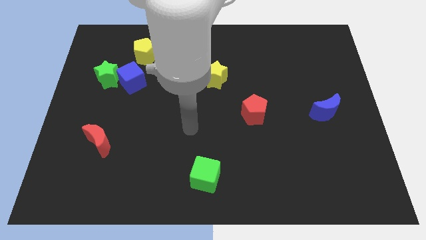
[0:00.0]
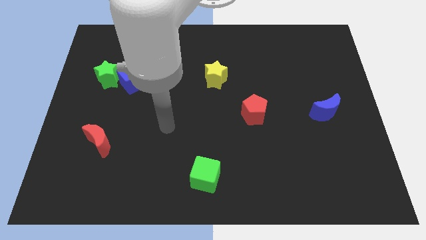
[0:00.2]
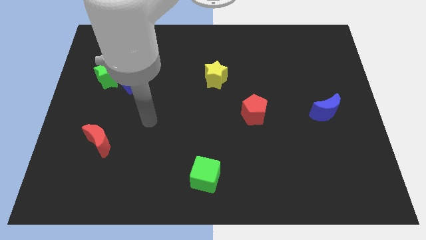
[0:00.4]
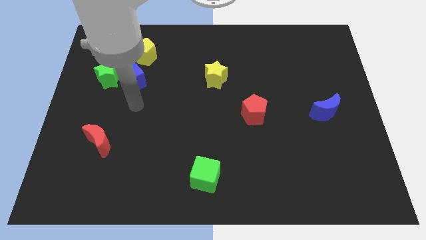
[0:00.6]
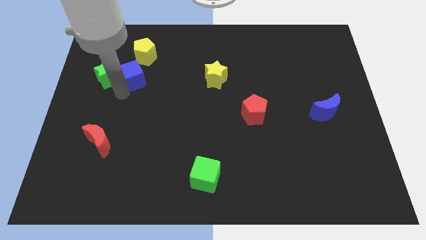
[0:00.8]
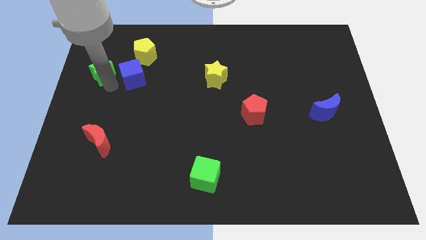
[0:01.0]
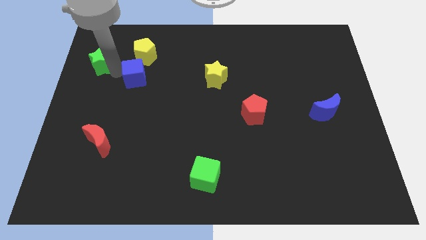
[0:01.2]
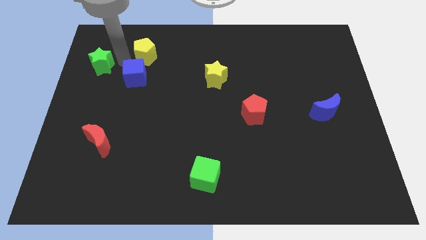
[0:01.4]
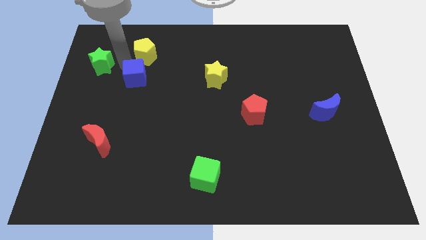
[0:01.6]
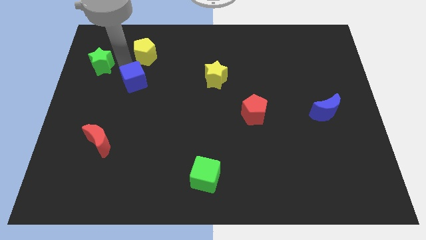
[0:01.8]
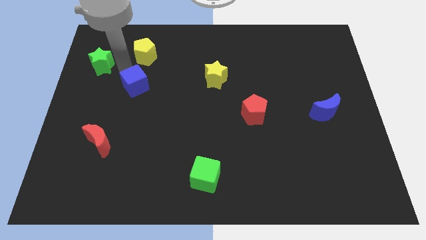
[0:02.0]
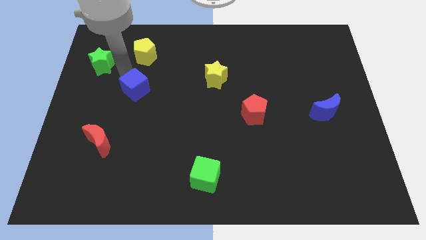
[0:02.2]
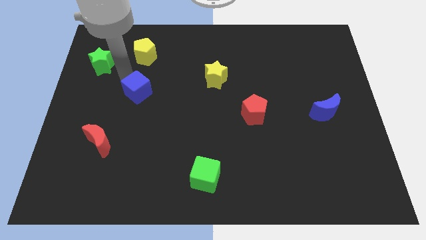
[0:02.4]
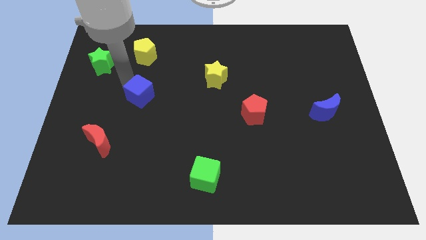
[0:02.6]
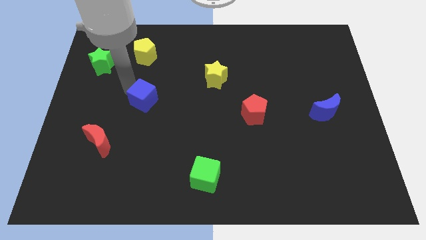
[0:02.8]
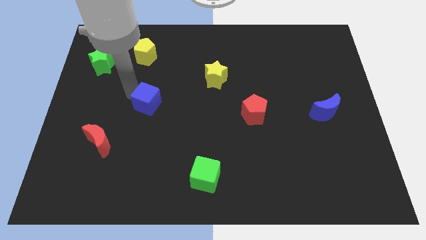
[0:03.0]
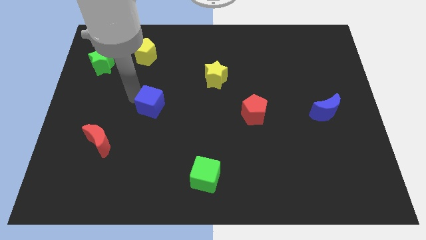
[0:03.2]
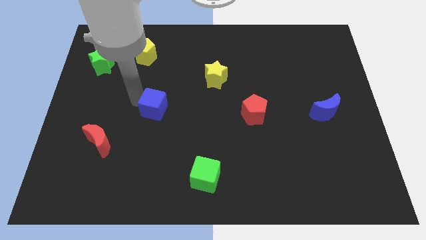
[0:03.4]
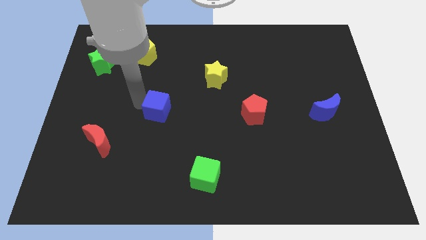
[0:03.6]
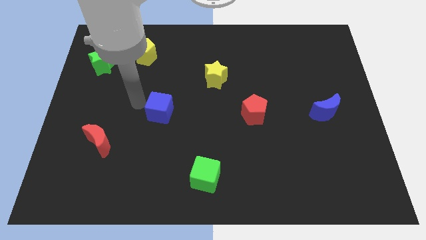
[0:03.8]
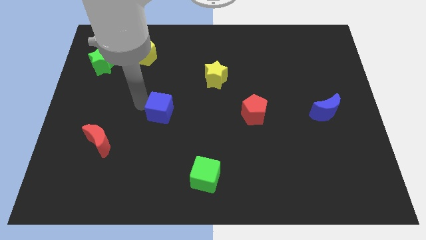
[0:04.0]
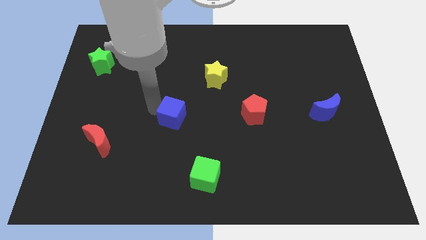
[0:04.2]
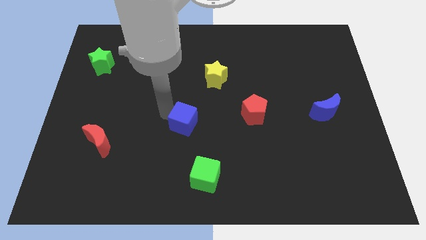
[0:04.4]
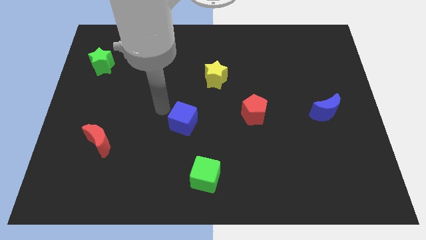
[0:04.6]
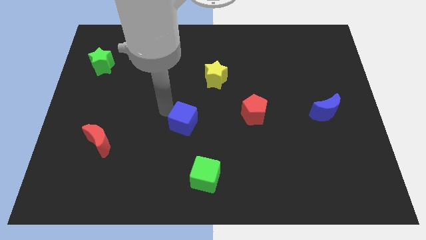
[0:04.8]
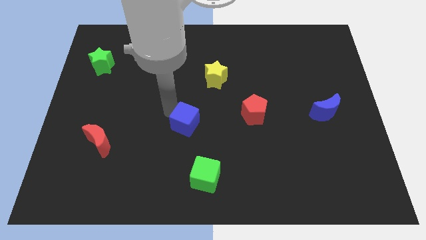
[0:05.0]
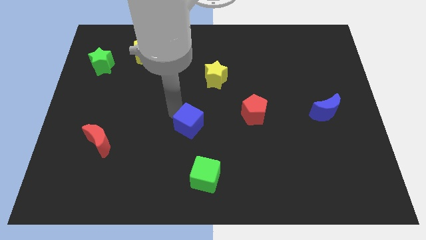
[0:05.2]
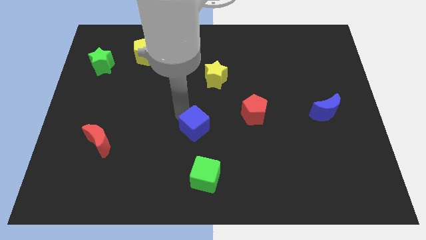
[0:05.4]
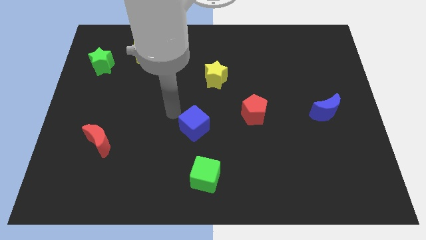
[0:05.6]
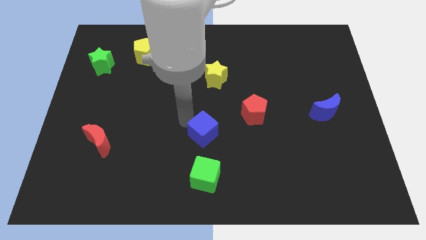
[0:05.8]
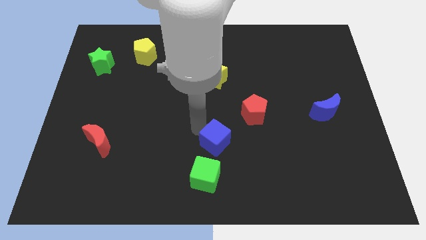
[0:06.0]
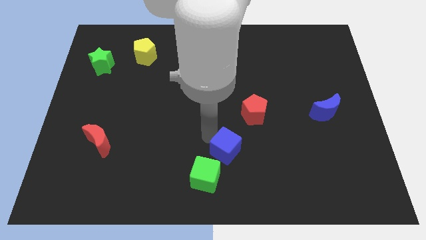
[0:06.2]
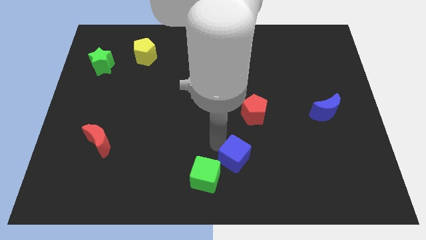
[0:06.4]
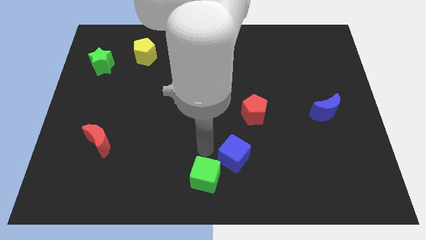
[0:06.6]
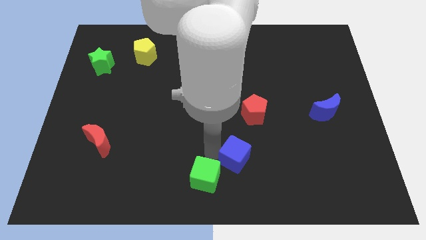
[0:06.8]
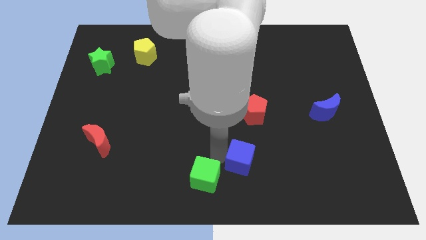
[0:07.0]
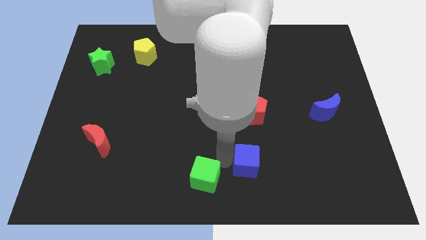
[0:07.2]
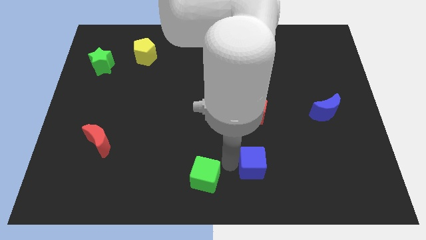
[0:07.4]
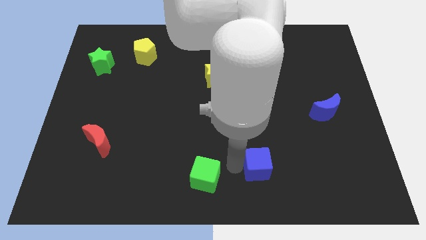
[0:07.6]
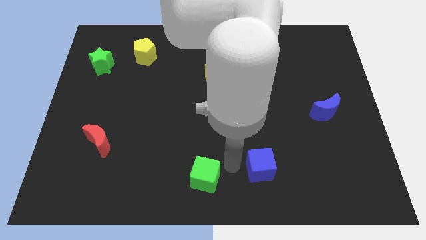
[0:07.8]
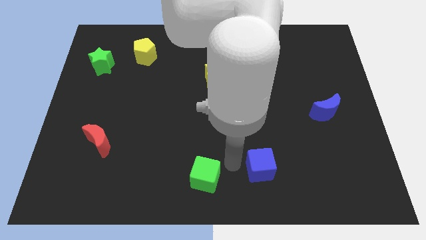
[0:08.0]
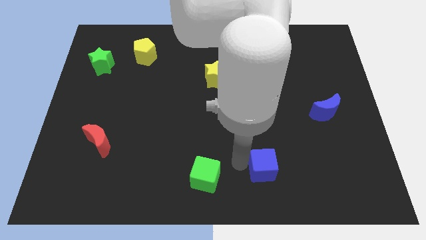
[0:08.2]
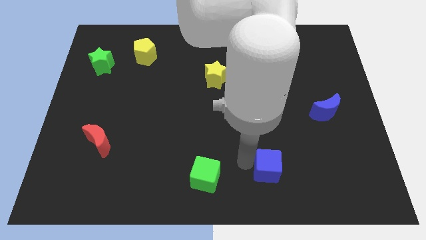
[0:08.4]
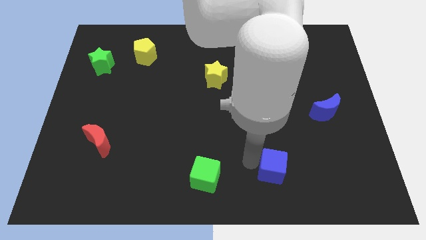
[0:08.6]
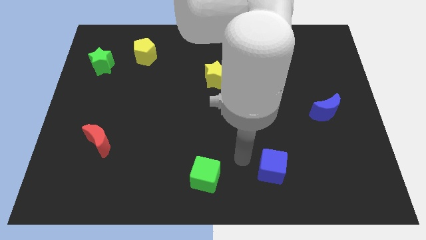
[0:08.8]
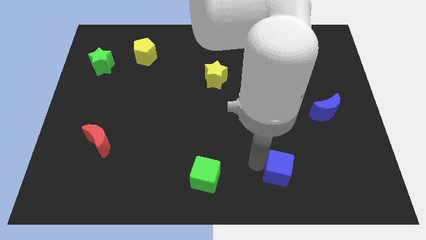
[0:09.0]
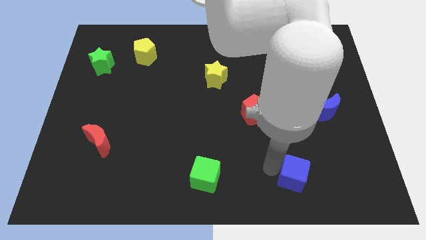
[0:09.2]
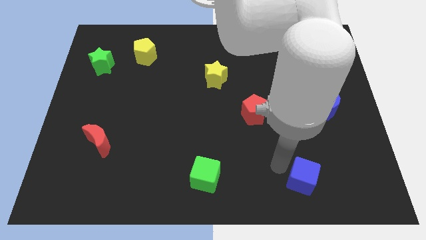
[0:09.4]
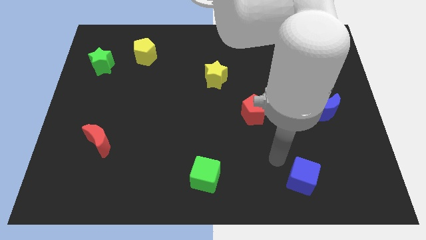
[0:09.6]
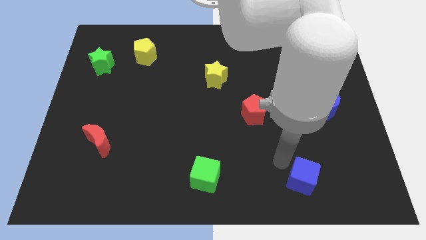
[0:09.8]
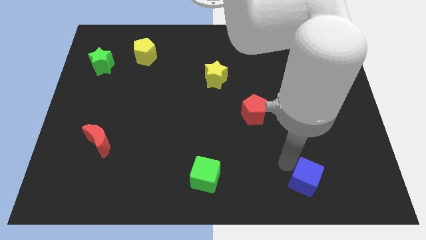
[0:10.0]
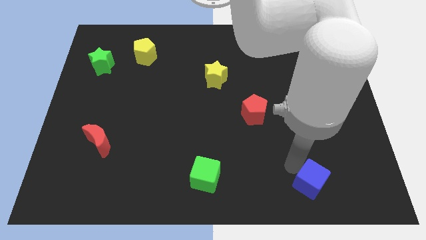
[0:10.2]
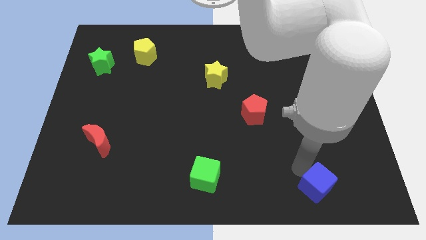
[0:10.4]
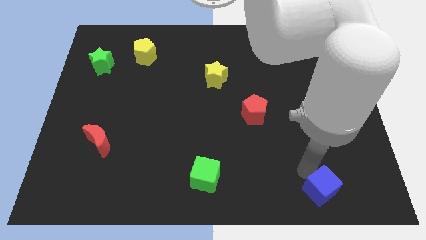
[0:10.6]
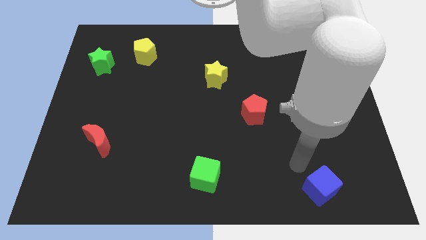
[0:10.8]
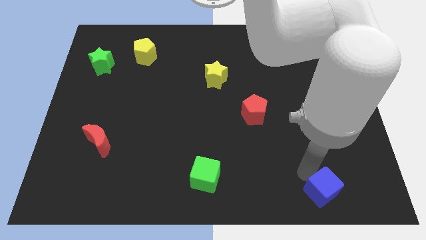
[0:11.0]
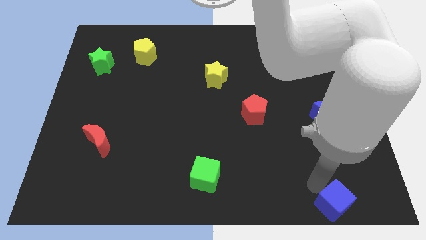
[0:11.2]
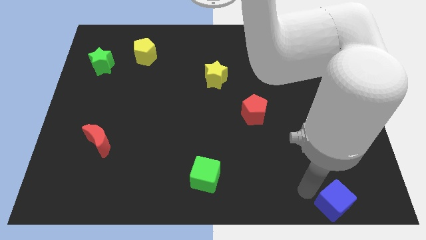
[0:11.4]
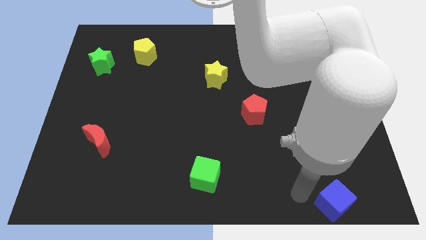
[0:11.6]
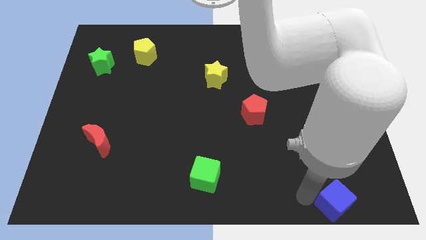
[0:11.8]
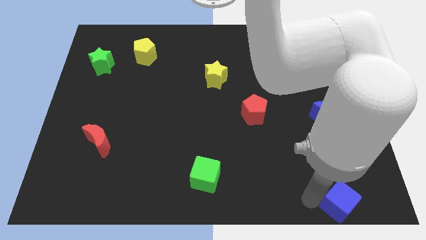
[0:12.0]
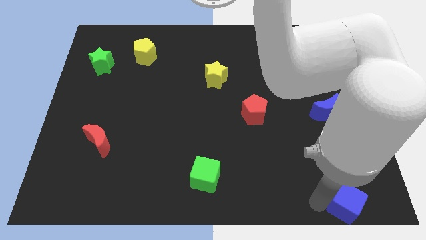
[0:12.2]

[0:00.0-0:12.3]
push the blue cube to the bottom right of the board

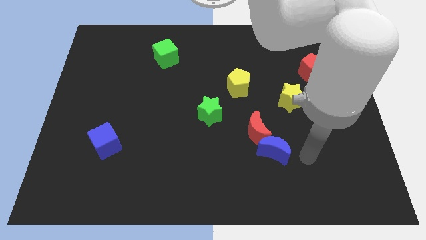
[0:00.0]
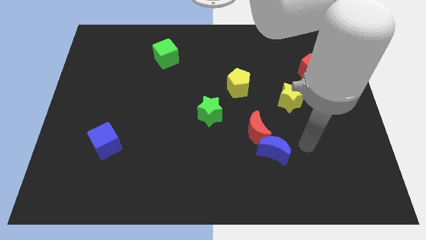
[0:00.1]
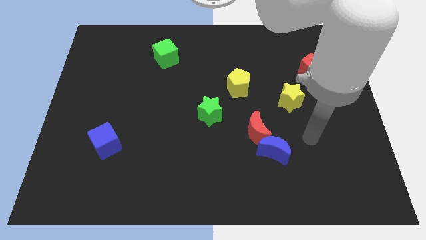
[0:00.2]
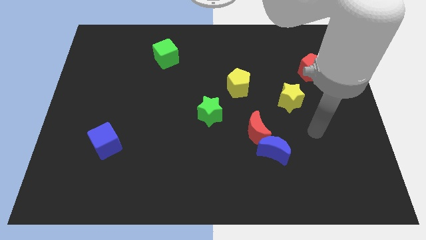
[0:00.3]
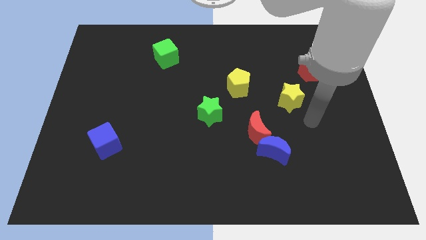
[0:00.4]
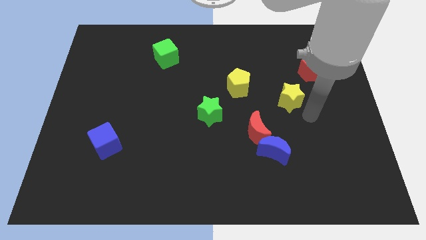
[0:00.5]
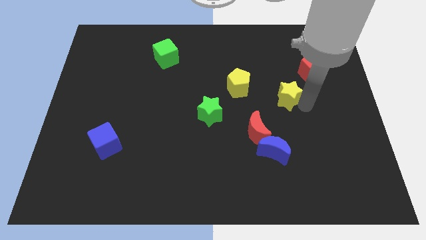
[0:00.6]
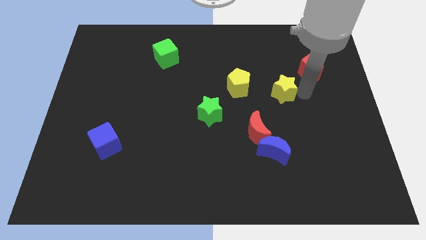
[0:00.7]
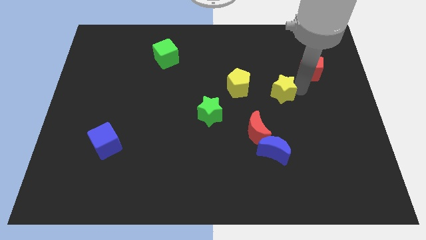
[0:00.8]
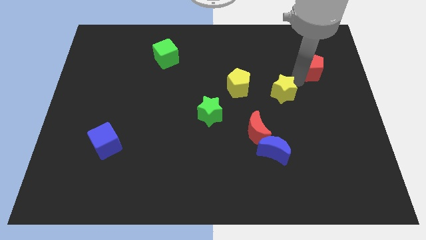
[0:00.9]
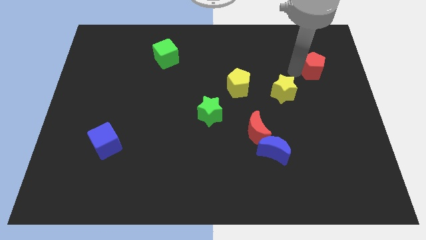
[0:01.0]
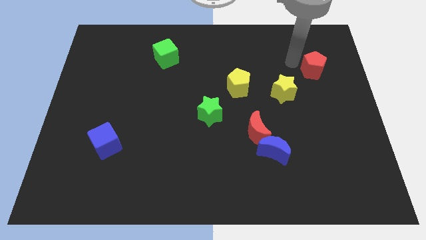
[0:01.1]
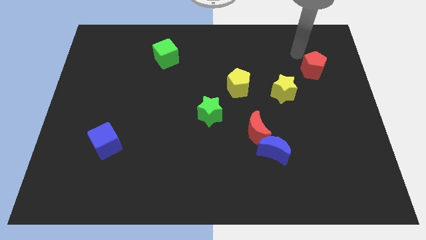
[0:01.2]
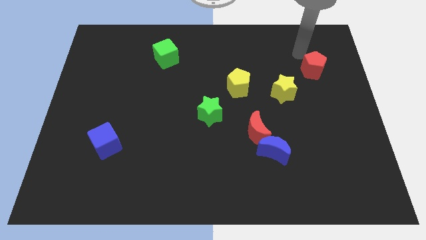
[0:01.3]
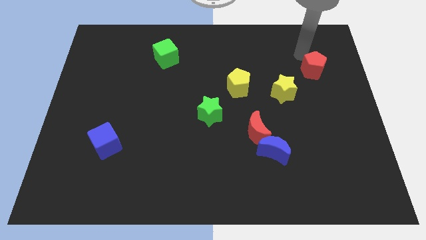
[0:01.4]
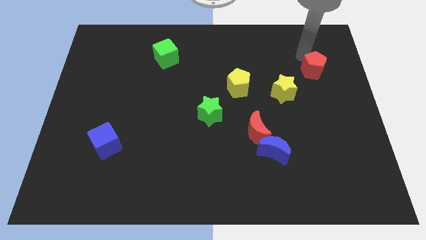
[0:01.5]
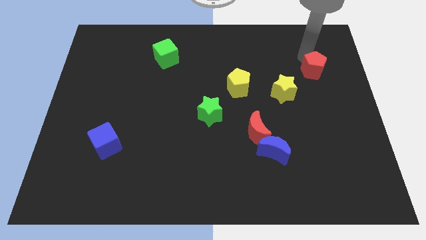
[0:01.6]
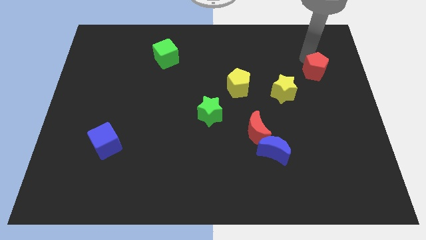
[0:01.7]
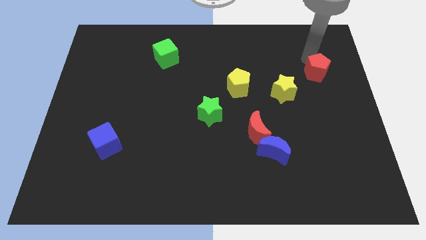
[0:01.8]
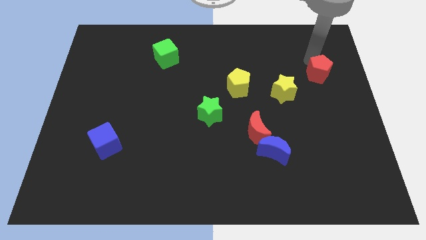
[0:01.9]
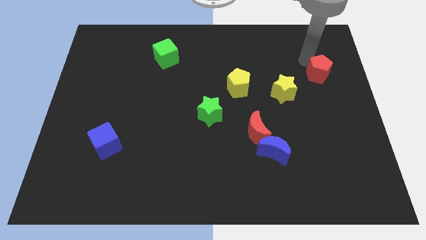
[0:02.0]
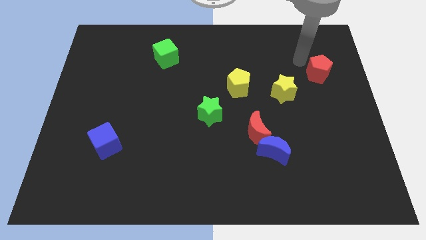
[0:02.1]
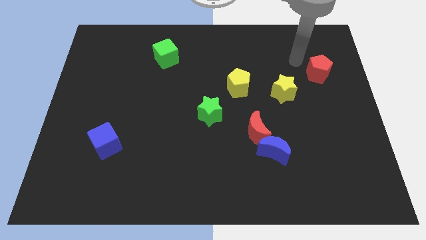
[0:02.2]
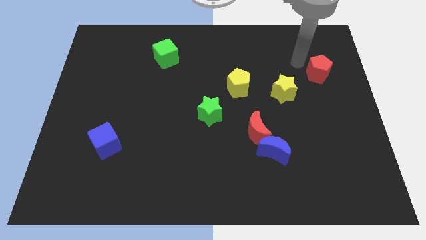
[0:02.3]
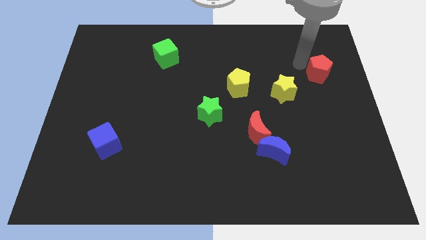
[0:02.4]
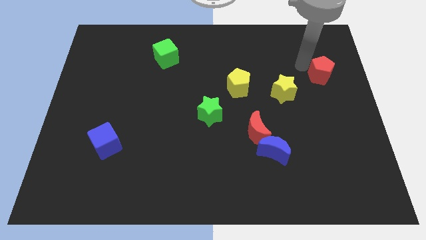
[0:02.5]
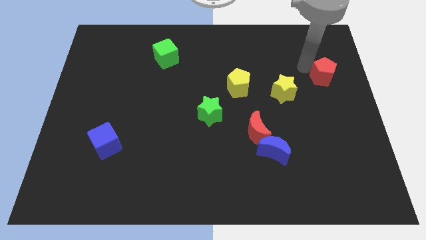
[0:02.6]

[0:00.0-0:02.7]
push the red pentagon to the center right
